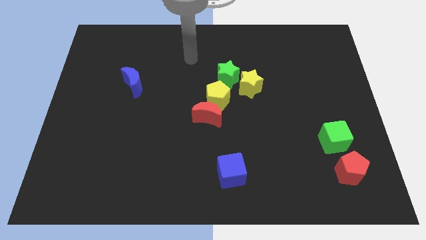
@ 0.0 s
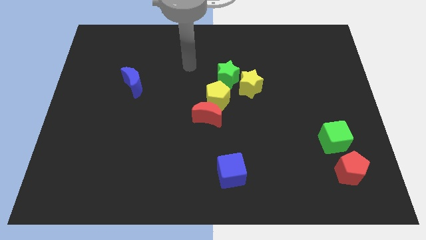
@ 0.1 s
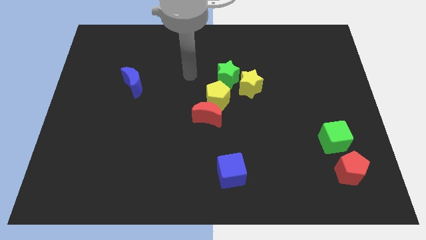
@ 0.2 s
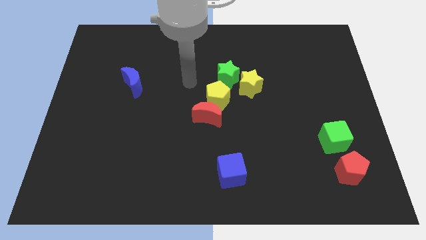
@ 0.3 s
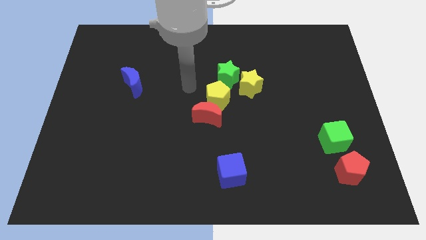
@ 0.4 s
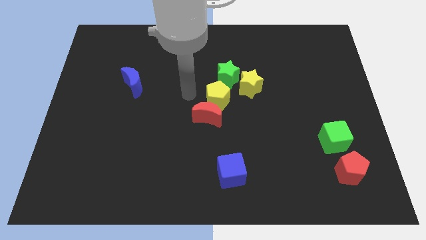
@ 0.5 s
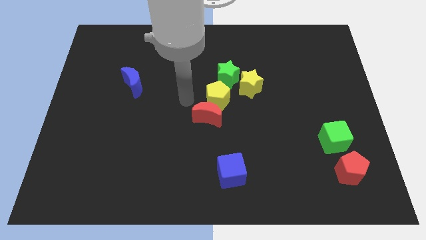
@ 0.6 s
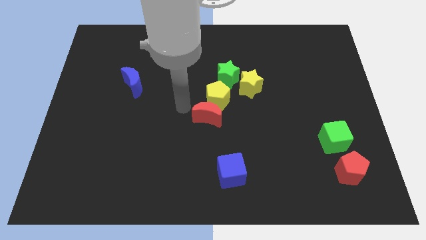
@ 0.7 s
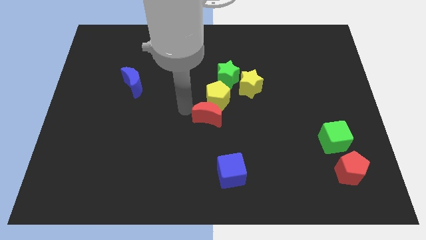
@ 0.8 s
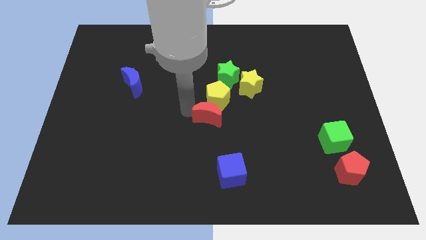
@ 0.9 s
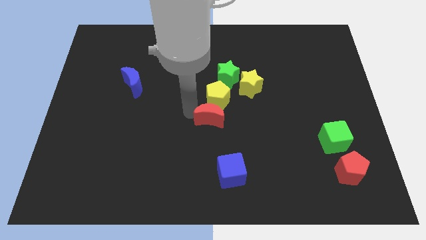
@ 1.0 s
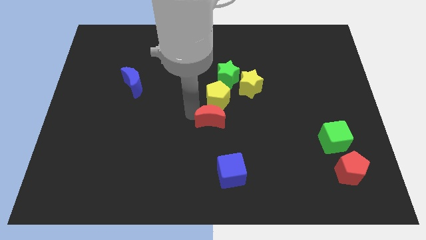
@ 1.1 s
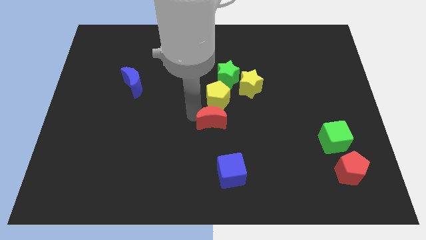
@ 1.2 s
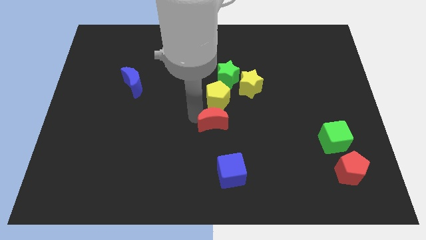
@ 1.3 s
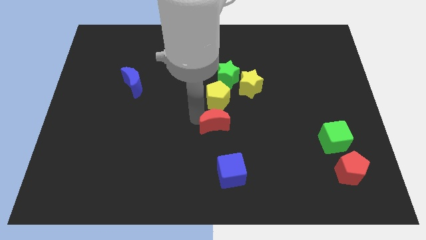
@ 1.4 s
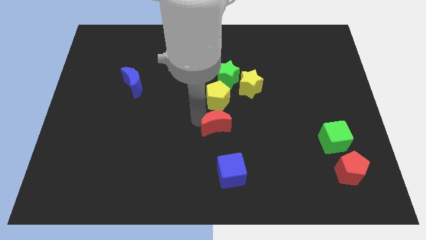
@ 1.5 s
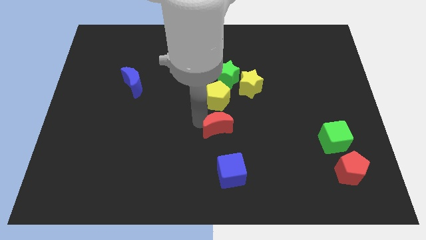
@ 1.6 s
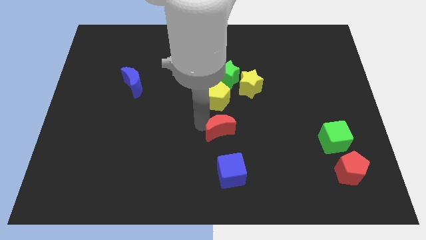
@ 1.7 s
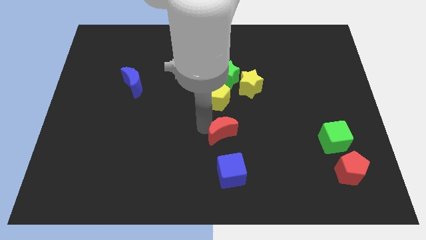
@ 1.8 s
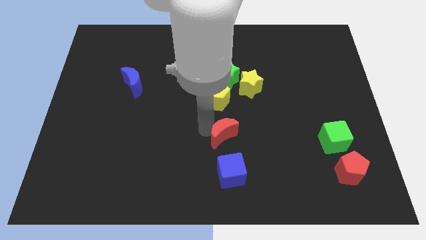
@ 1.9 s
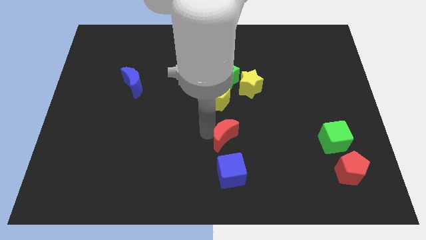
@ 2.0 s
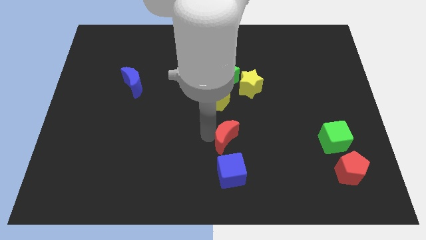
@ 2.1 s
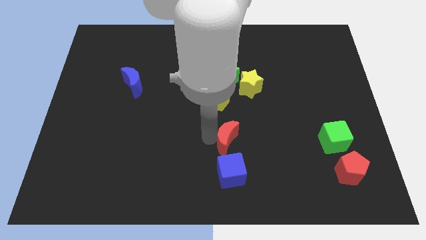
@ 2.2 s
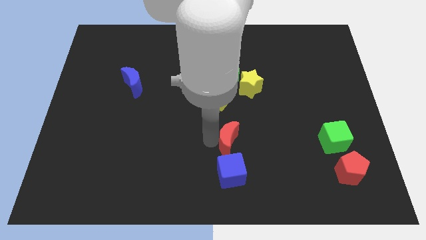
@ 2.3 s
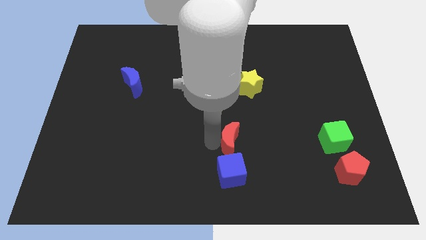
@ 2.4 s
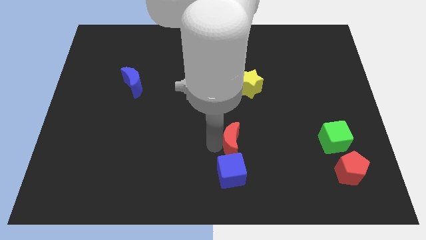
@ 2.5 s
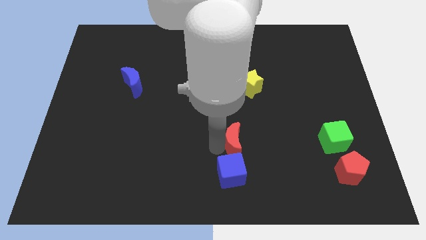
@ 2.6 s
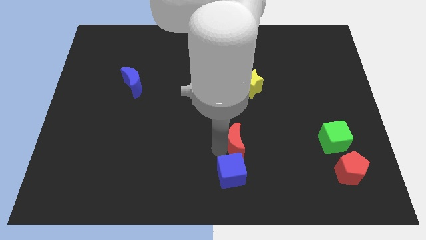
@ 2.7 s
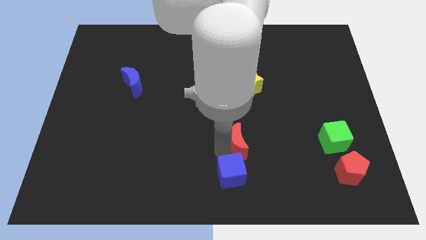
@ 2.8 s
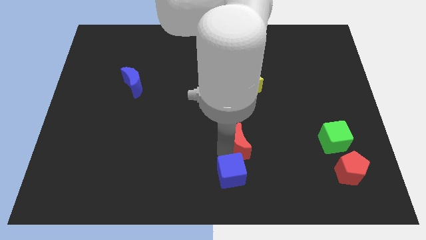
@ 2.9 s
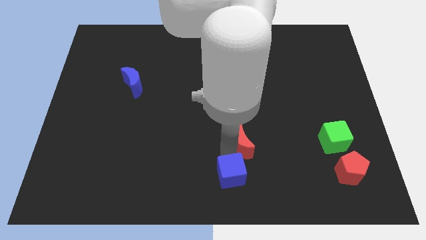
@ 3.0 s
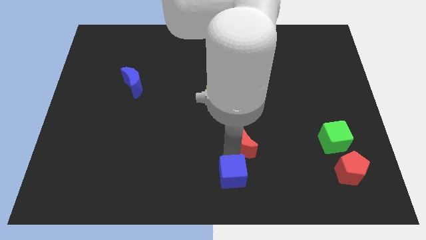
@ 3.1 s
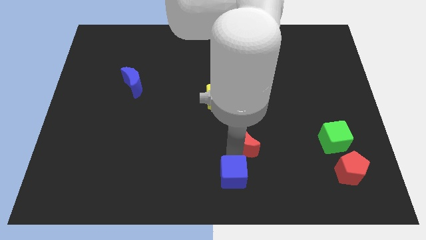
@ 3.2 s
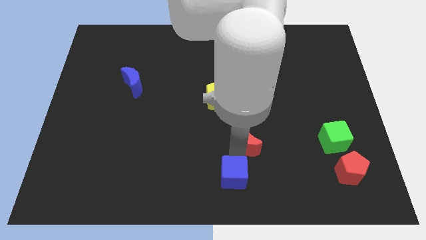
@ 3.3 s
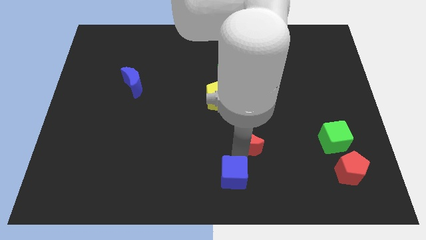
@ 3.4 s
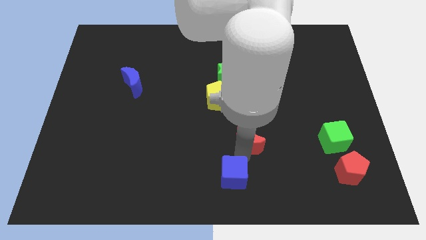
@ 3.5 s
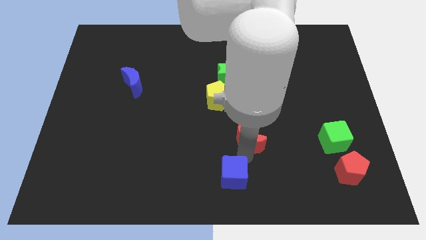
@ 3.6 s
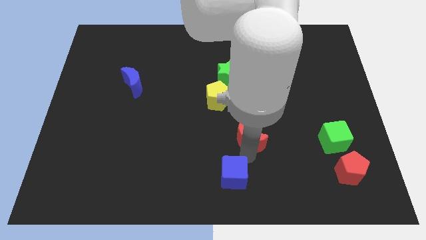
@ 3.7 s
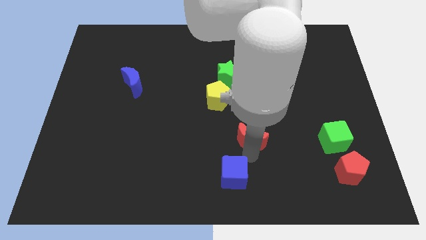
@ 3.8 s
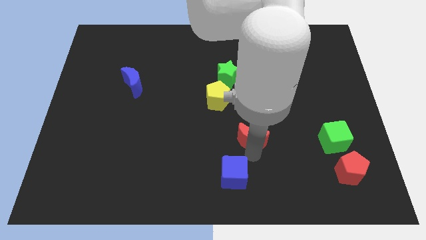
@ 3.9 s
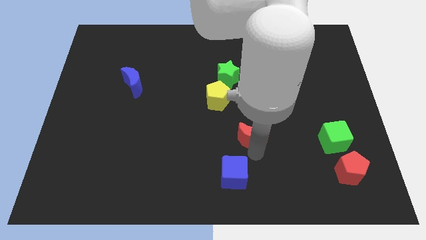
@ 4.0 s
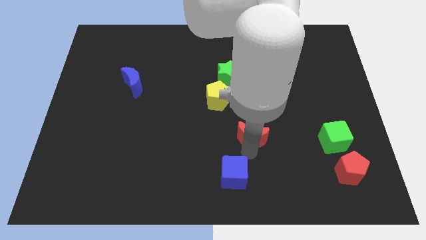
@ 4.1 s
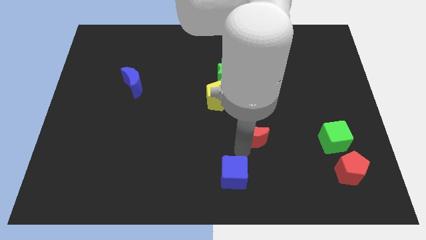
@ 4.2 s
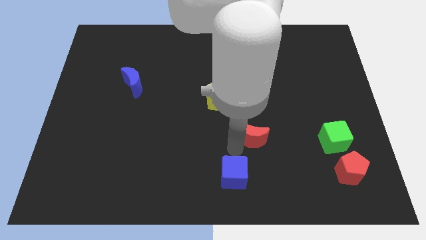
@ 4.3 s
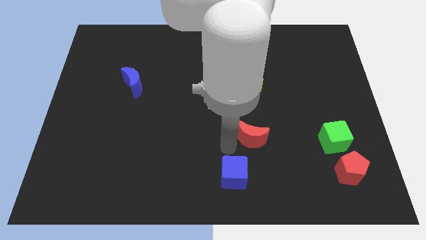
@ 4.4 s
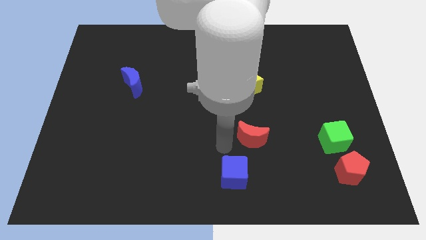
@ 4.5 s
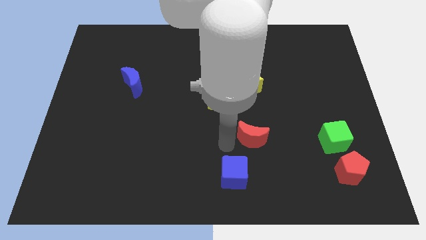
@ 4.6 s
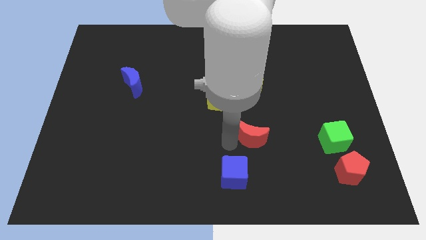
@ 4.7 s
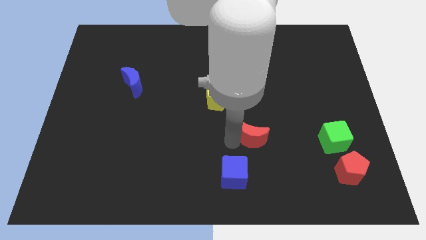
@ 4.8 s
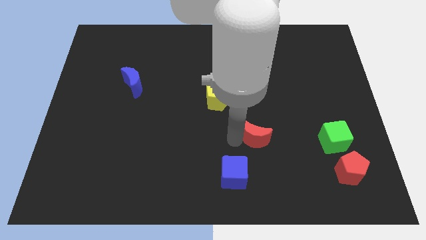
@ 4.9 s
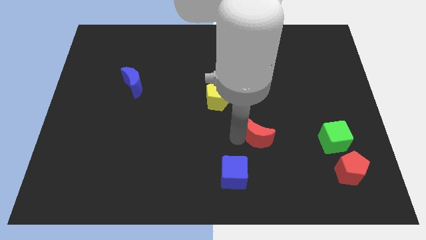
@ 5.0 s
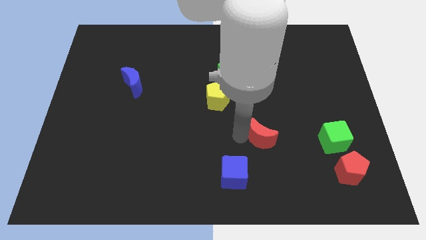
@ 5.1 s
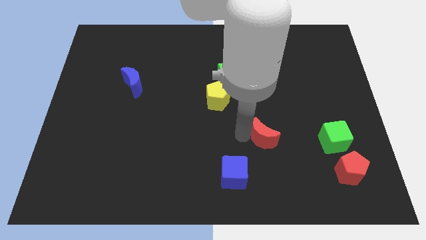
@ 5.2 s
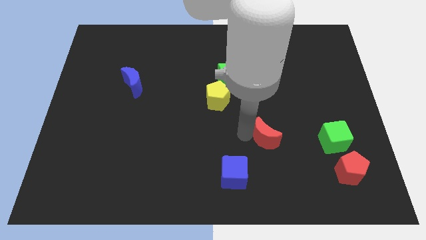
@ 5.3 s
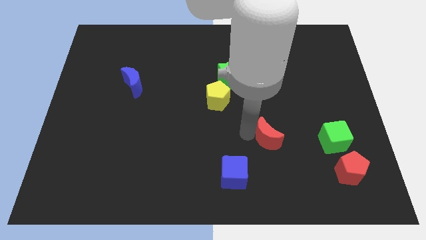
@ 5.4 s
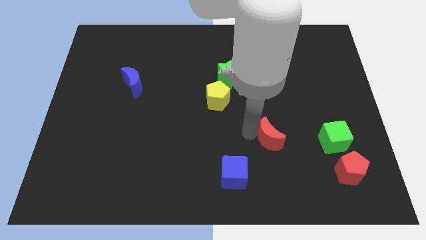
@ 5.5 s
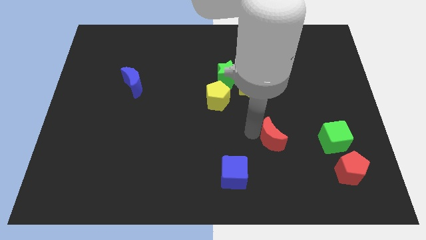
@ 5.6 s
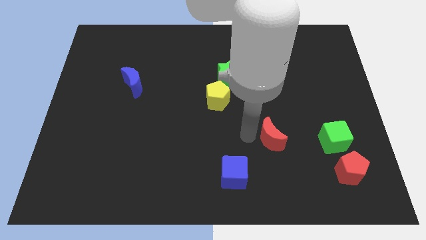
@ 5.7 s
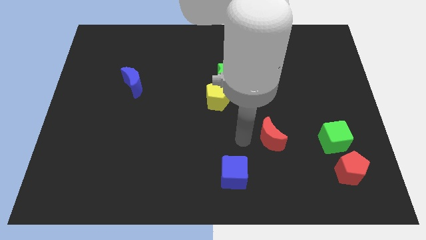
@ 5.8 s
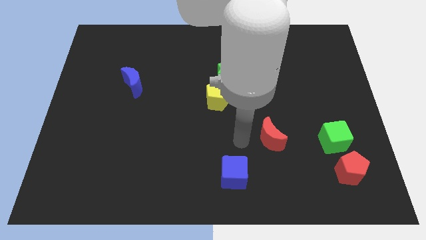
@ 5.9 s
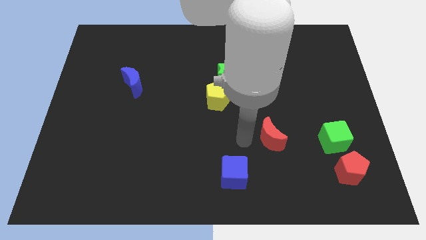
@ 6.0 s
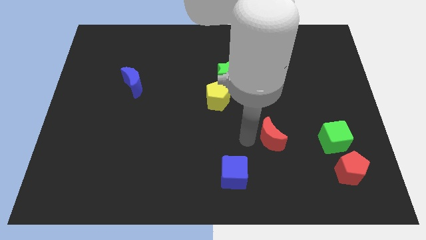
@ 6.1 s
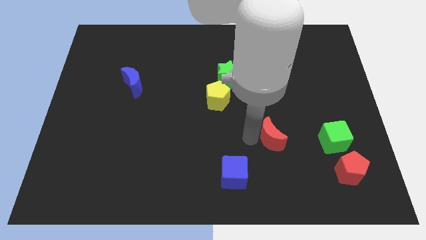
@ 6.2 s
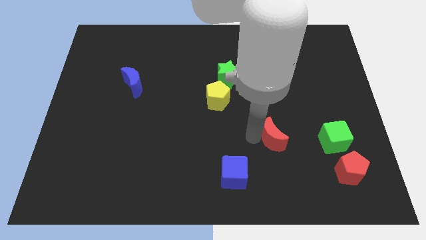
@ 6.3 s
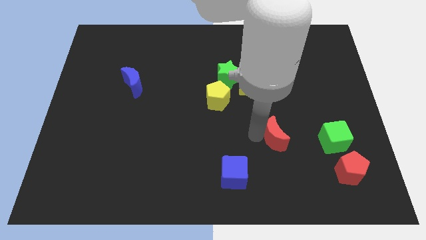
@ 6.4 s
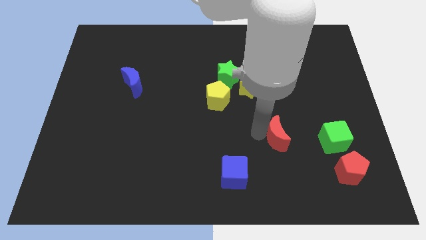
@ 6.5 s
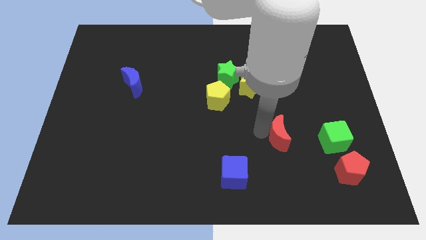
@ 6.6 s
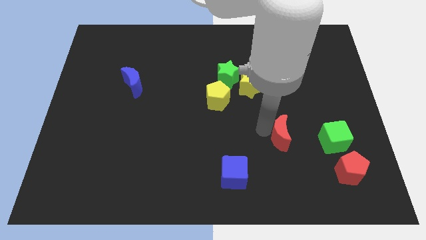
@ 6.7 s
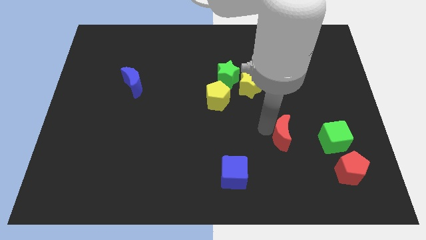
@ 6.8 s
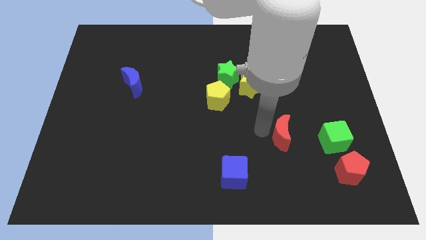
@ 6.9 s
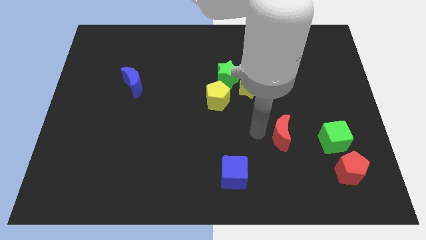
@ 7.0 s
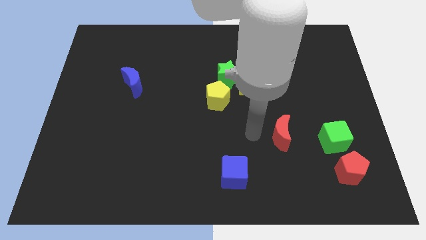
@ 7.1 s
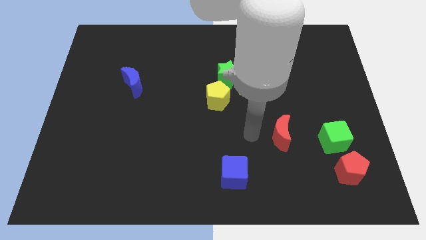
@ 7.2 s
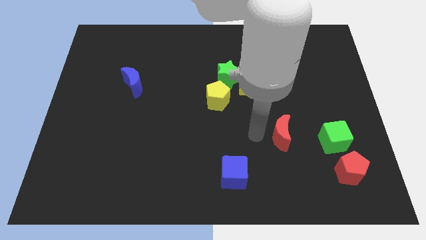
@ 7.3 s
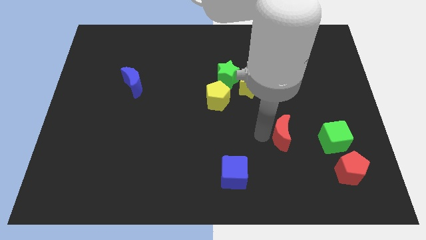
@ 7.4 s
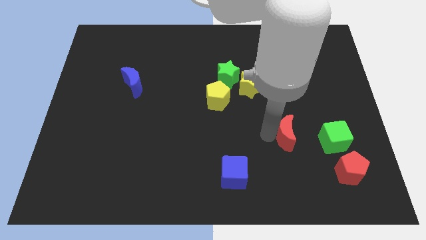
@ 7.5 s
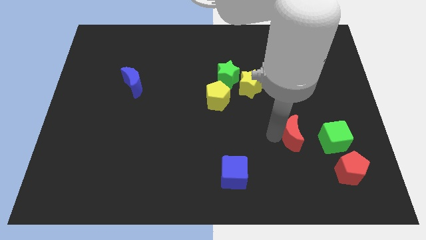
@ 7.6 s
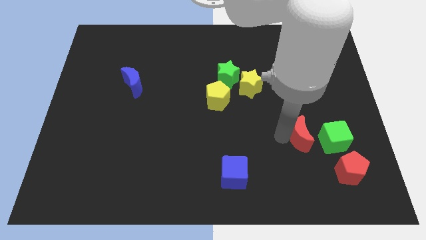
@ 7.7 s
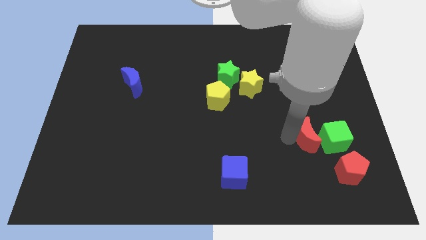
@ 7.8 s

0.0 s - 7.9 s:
put the red moon next to the green cube
